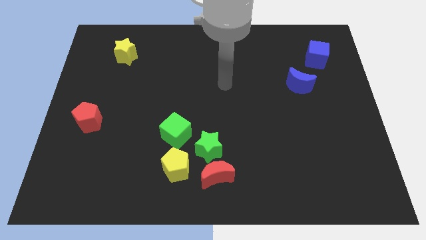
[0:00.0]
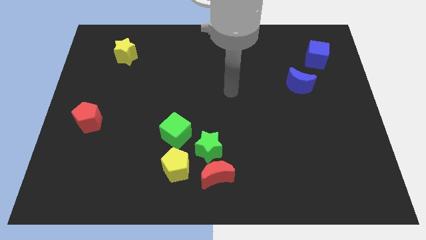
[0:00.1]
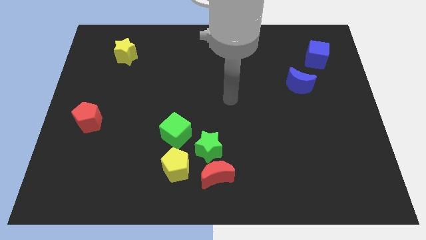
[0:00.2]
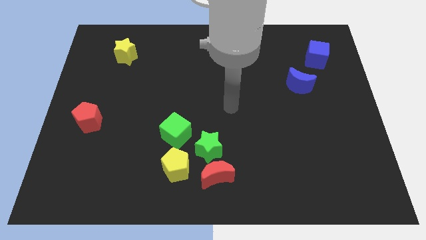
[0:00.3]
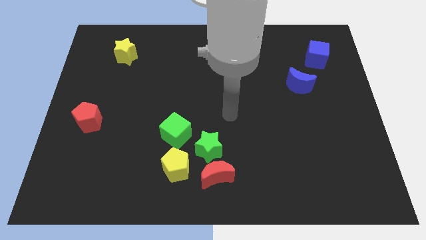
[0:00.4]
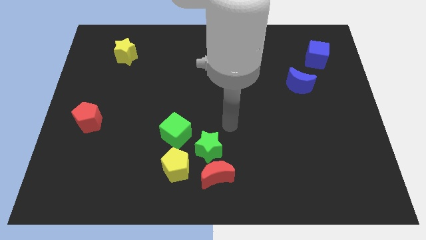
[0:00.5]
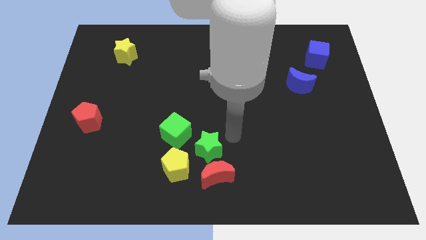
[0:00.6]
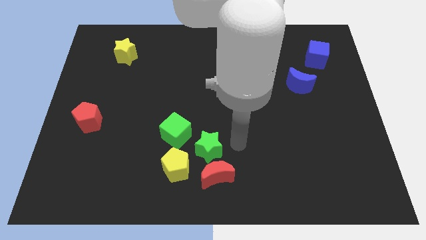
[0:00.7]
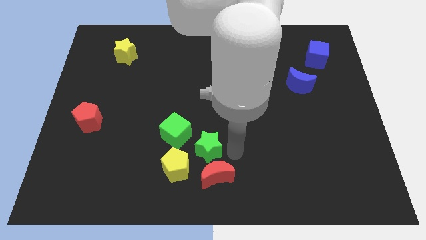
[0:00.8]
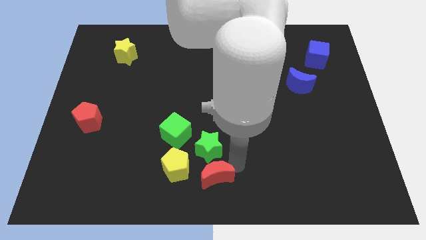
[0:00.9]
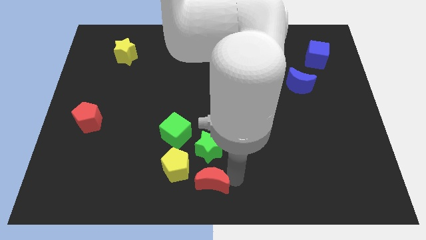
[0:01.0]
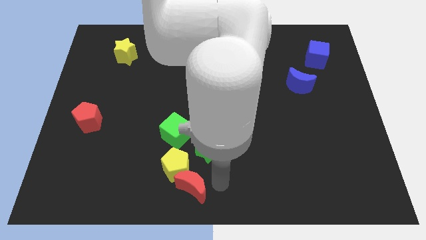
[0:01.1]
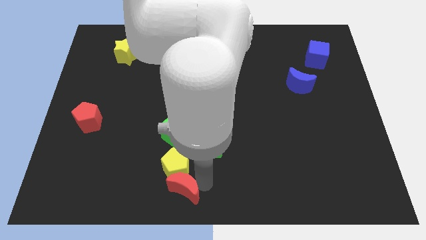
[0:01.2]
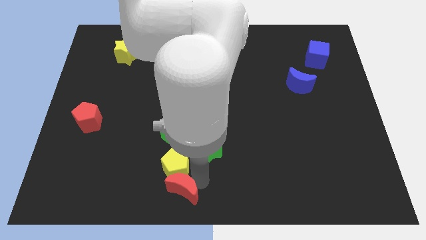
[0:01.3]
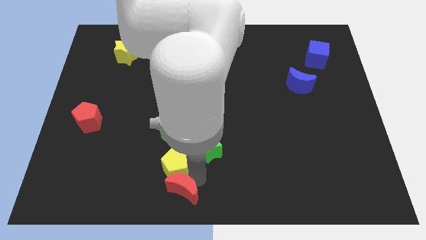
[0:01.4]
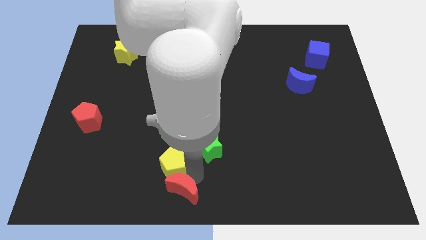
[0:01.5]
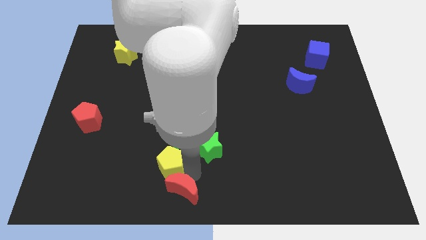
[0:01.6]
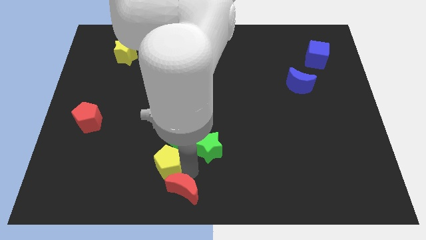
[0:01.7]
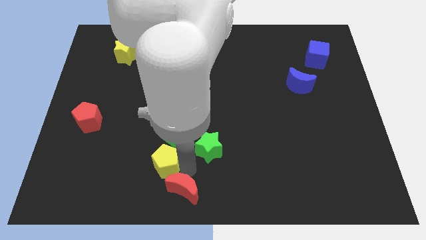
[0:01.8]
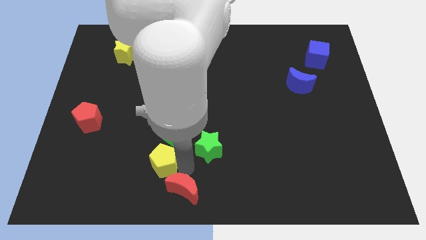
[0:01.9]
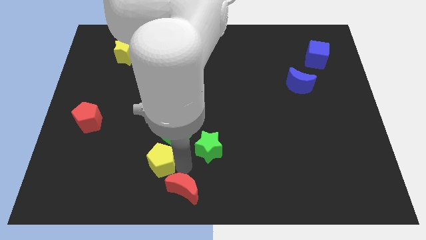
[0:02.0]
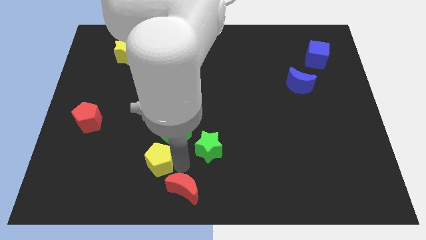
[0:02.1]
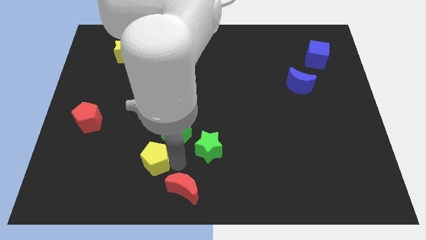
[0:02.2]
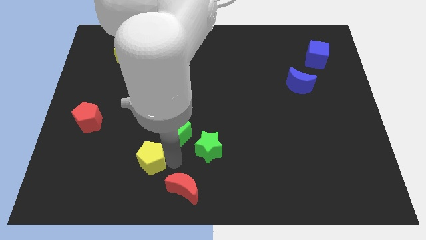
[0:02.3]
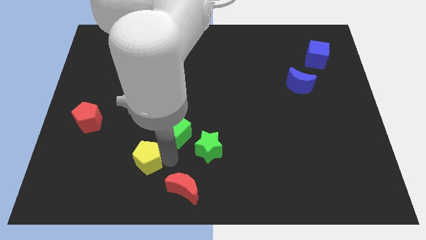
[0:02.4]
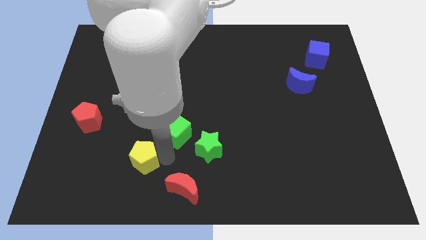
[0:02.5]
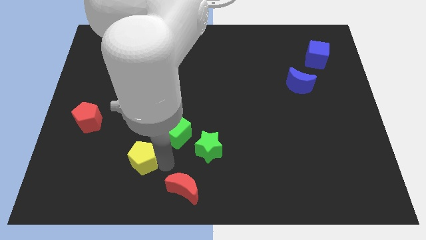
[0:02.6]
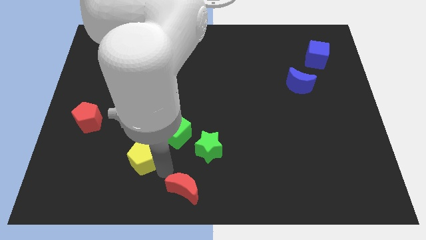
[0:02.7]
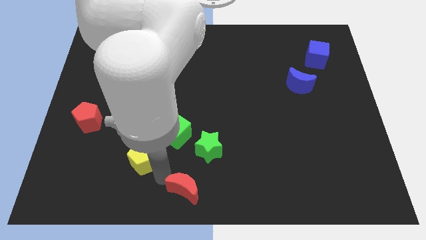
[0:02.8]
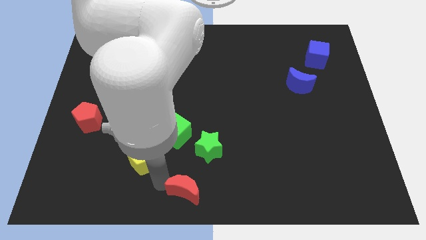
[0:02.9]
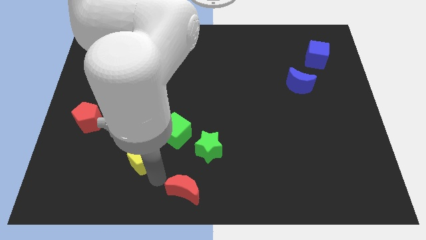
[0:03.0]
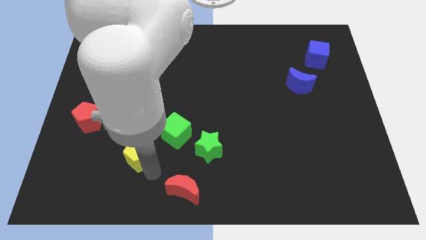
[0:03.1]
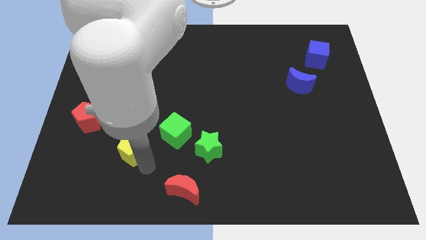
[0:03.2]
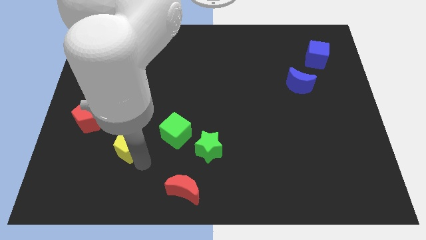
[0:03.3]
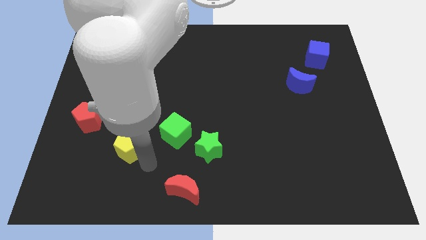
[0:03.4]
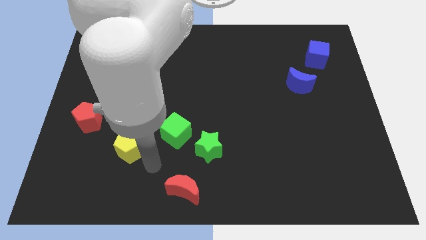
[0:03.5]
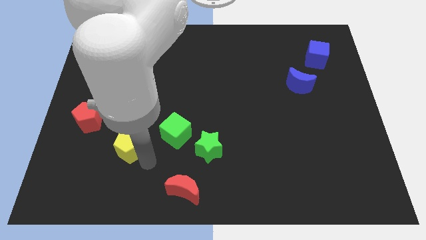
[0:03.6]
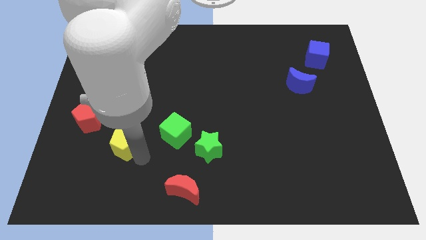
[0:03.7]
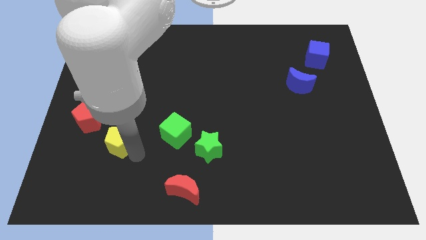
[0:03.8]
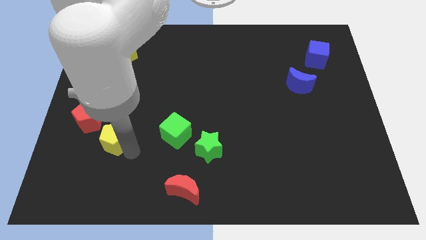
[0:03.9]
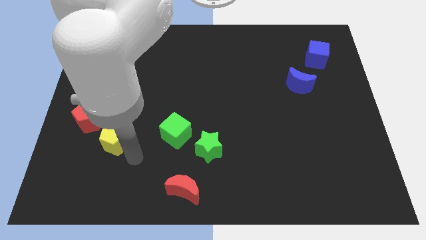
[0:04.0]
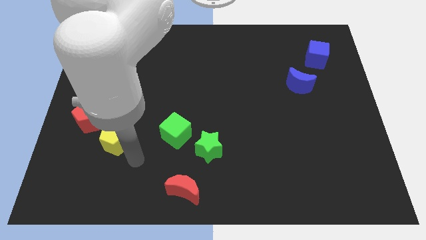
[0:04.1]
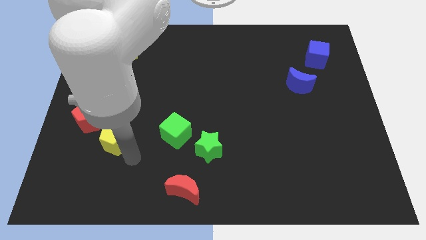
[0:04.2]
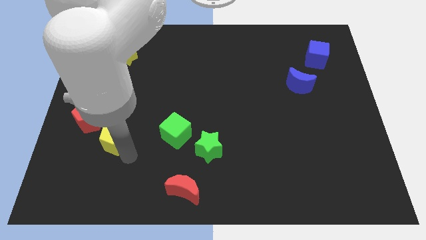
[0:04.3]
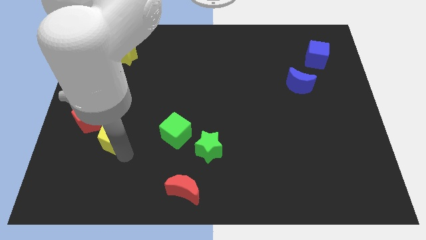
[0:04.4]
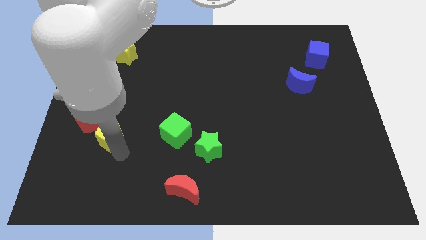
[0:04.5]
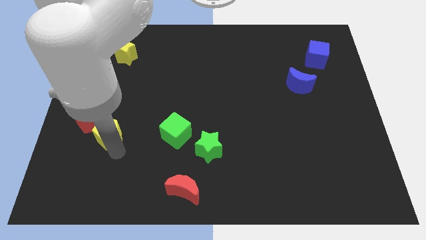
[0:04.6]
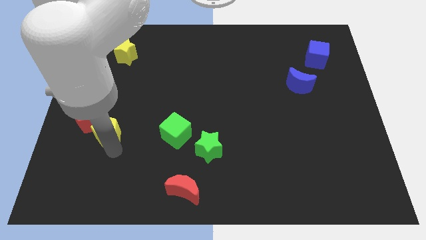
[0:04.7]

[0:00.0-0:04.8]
put the yellow pentagon towards the red pentagon

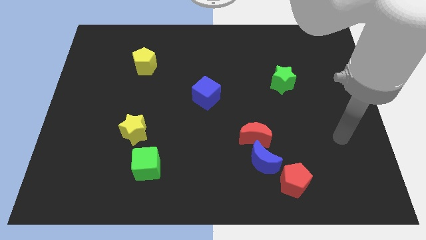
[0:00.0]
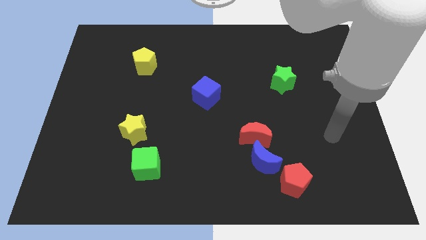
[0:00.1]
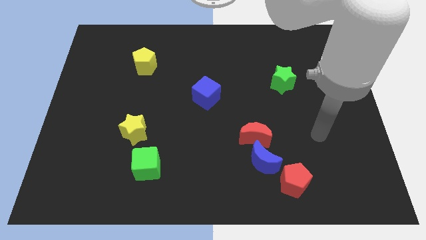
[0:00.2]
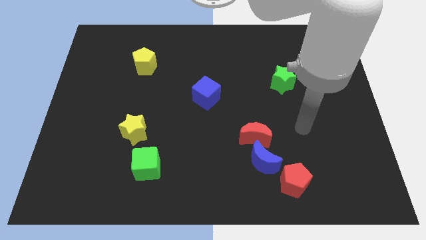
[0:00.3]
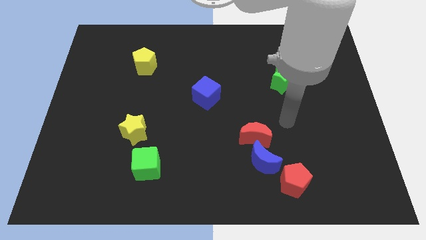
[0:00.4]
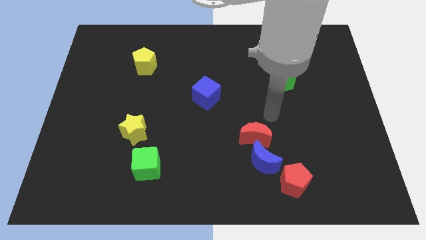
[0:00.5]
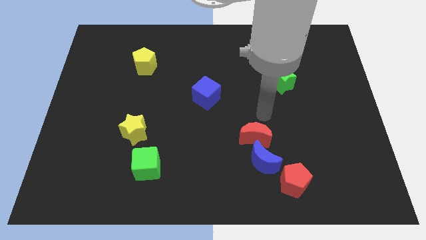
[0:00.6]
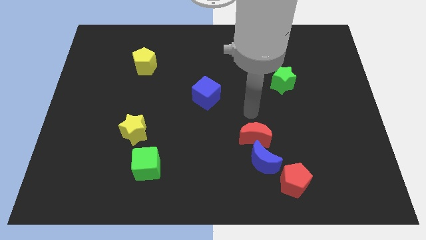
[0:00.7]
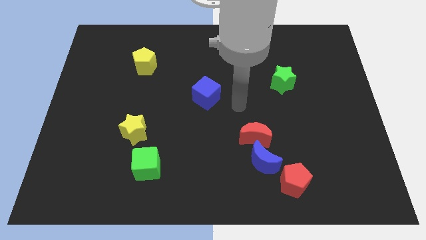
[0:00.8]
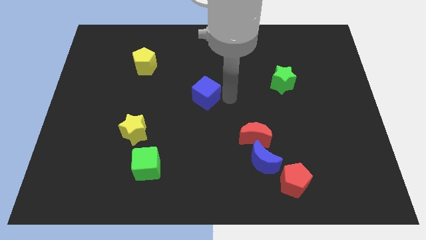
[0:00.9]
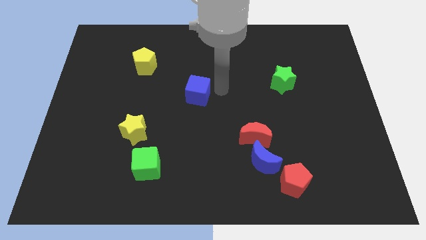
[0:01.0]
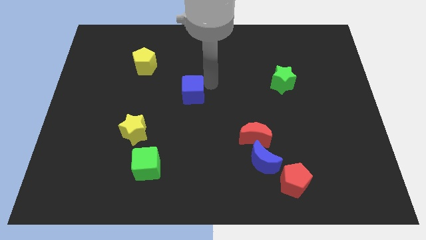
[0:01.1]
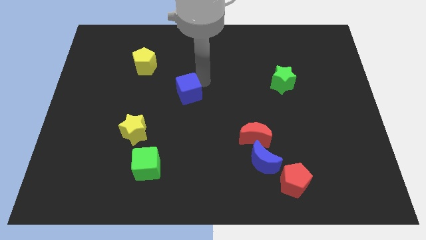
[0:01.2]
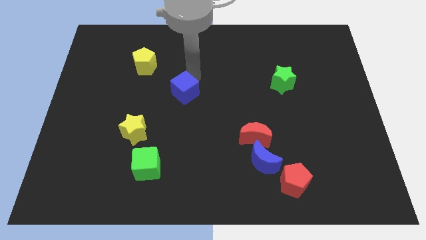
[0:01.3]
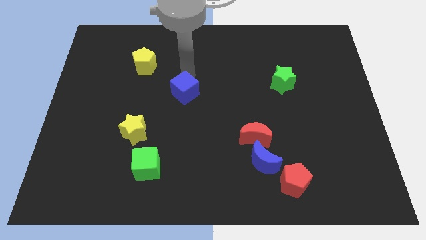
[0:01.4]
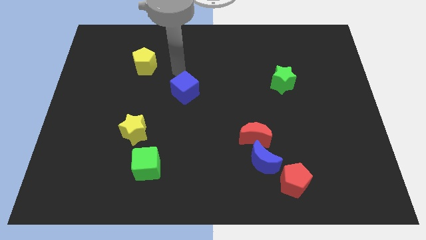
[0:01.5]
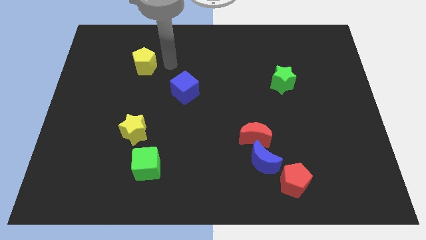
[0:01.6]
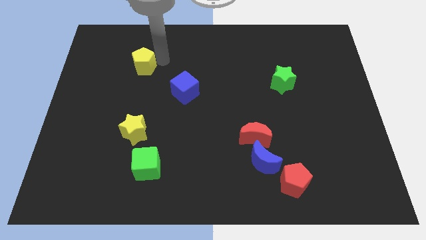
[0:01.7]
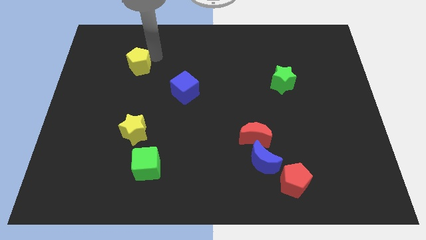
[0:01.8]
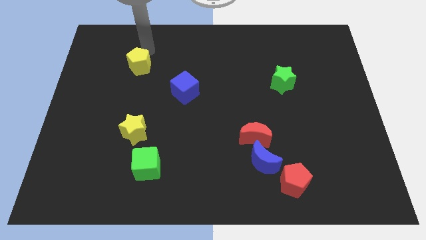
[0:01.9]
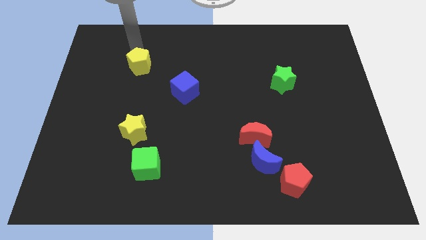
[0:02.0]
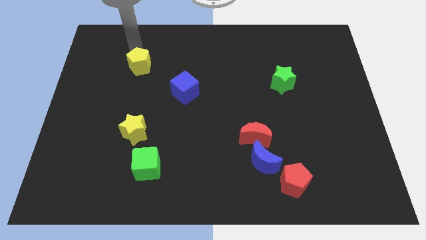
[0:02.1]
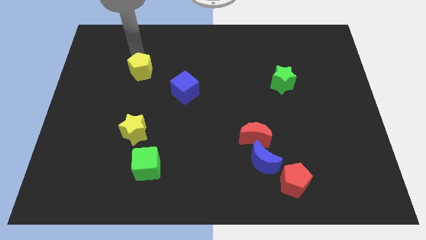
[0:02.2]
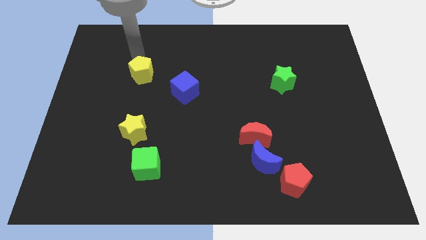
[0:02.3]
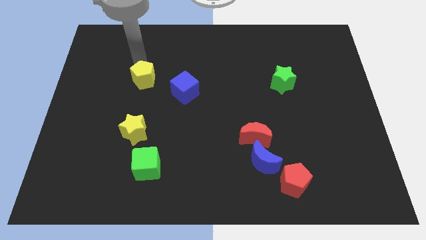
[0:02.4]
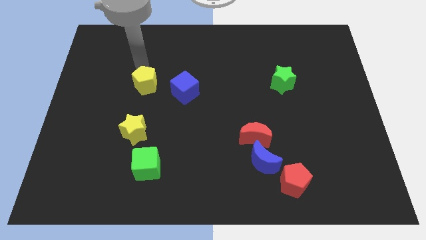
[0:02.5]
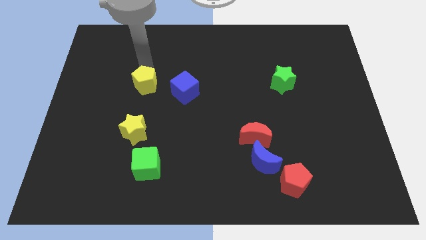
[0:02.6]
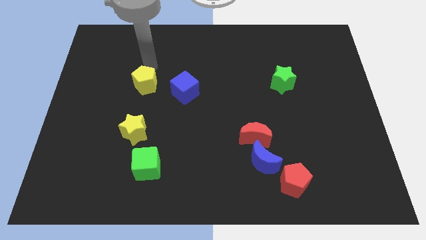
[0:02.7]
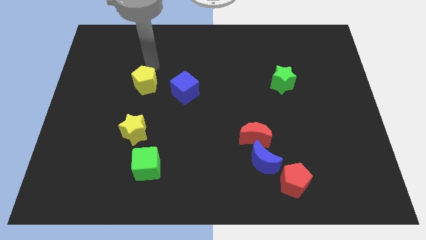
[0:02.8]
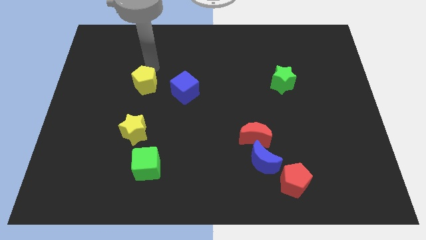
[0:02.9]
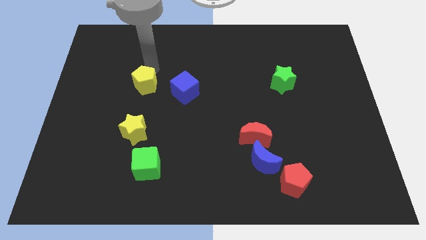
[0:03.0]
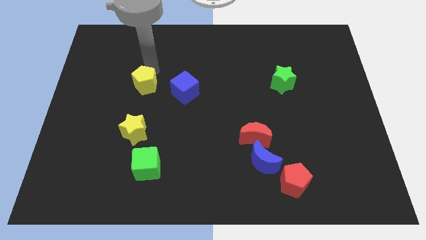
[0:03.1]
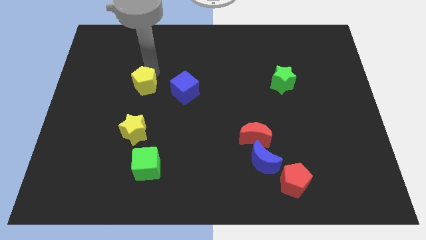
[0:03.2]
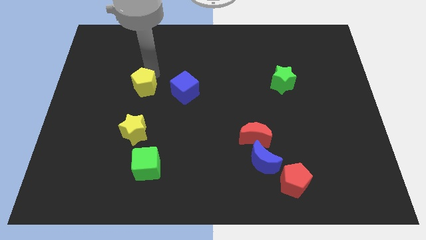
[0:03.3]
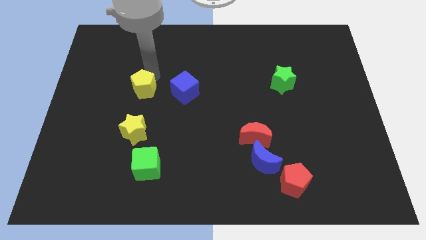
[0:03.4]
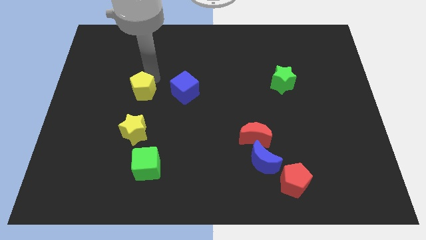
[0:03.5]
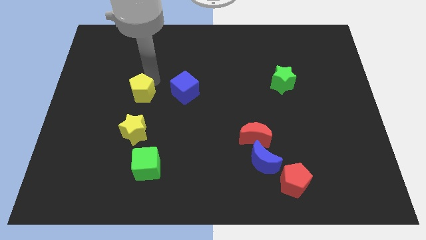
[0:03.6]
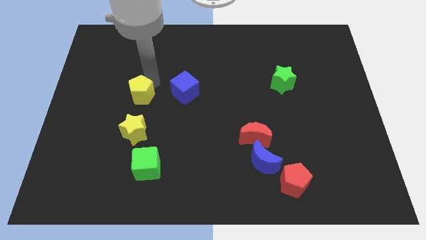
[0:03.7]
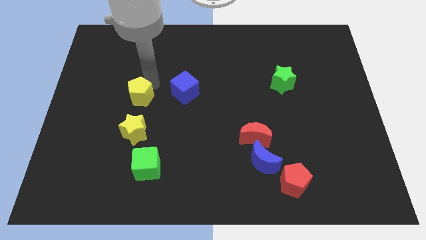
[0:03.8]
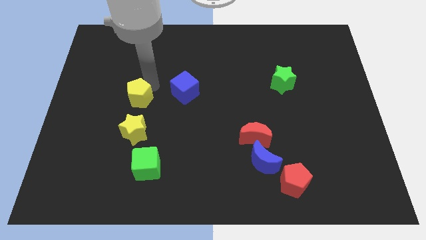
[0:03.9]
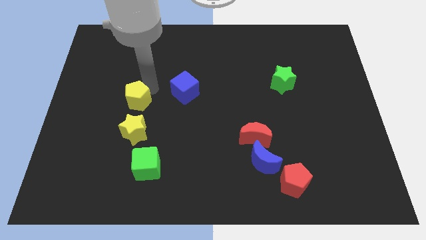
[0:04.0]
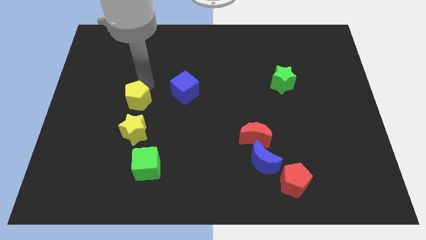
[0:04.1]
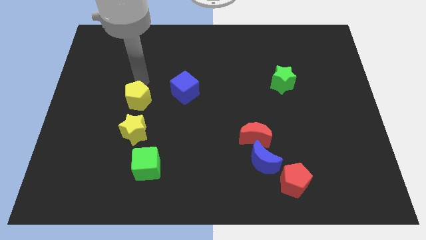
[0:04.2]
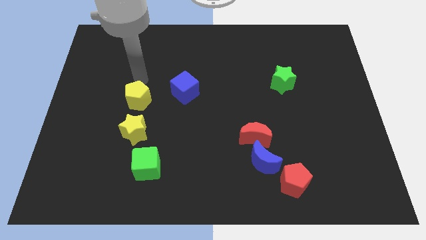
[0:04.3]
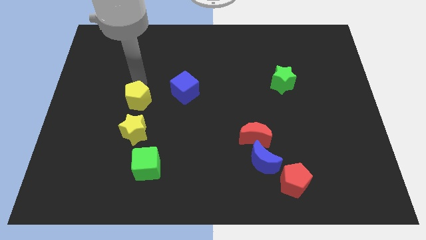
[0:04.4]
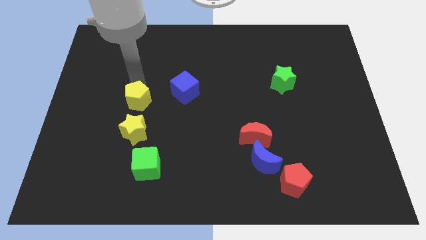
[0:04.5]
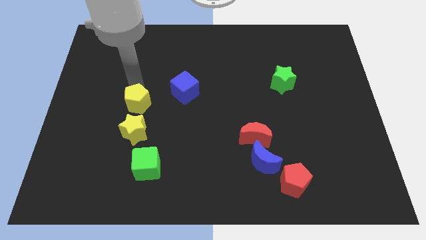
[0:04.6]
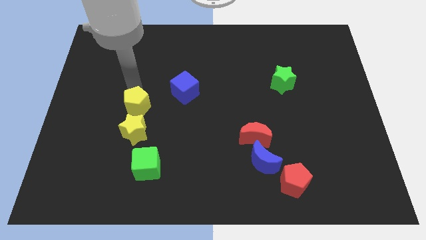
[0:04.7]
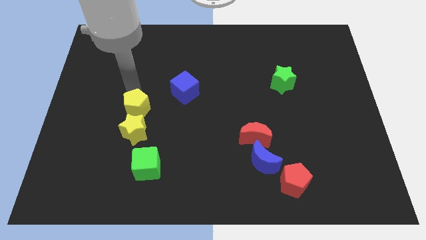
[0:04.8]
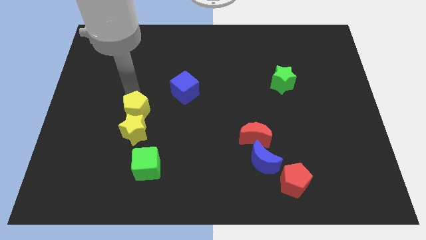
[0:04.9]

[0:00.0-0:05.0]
move the yellow pentagon next to the yellow star
